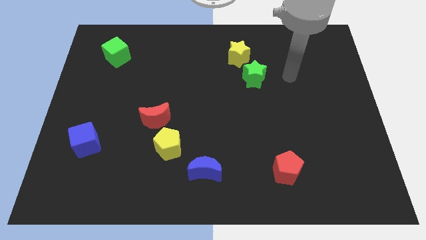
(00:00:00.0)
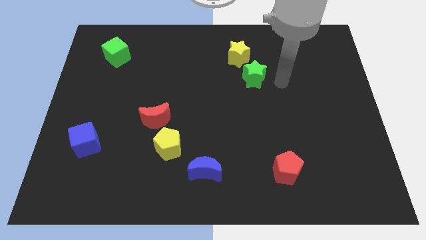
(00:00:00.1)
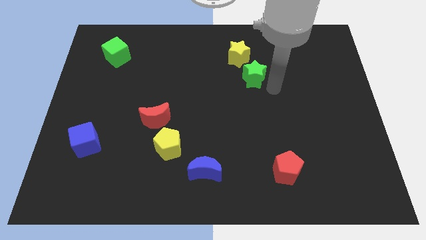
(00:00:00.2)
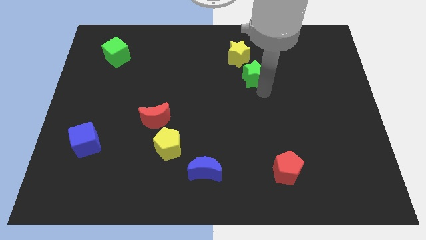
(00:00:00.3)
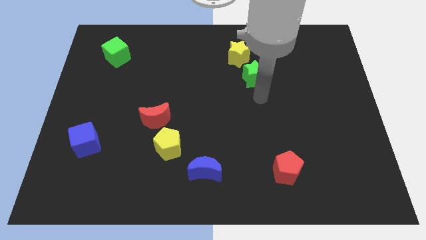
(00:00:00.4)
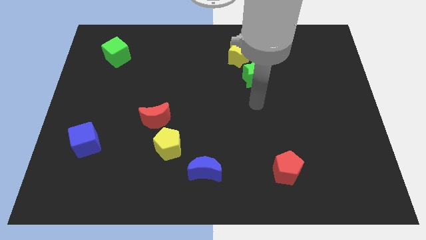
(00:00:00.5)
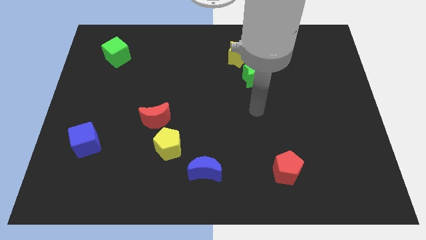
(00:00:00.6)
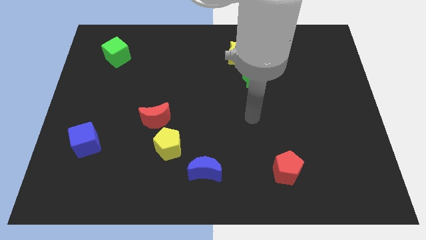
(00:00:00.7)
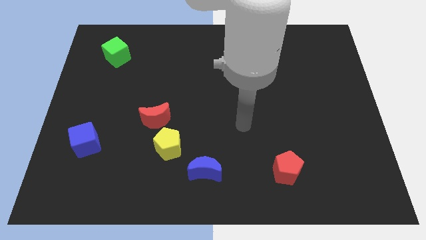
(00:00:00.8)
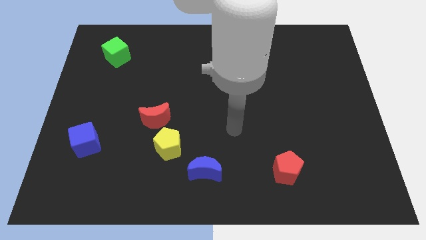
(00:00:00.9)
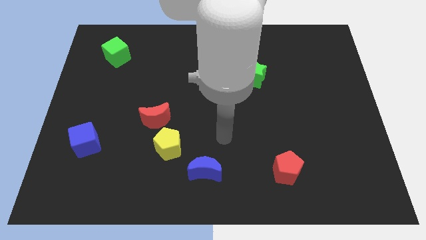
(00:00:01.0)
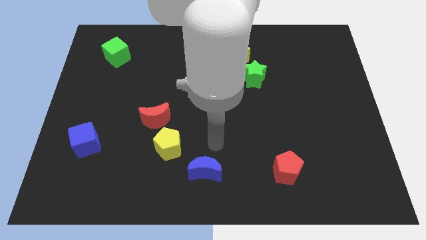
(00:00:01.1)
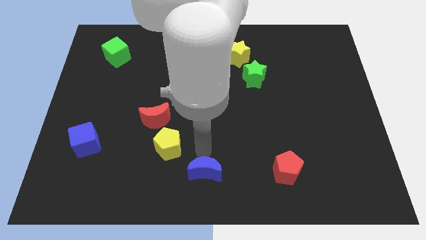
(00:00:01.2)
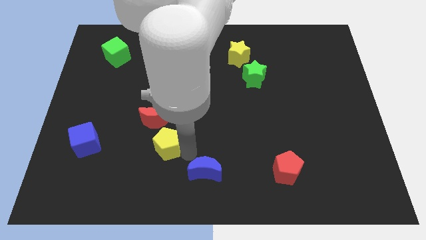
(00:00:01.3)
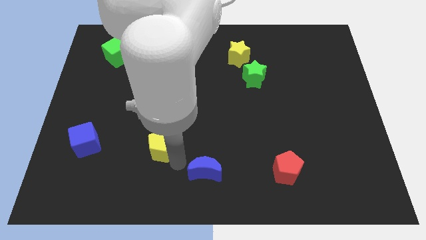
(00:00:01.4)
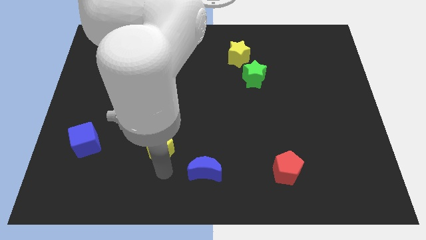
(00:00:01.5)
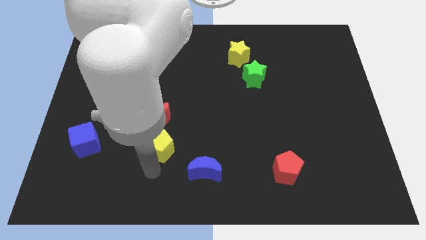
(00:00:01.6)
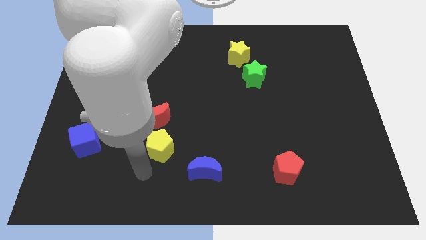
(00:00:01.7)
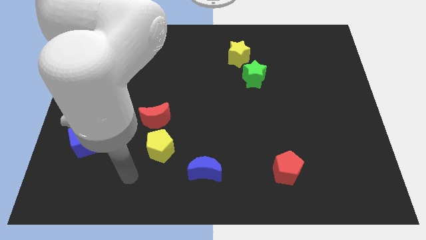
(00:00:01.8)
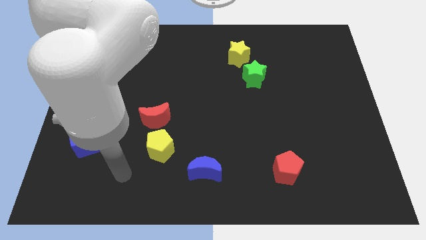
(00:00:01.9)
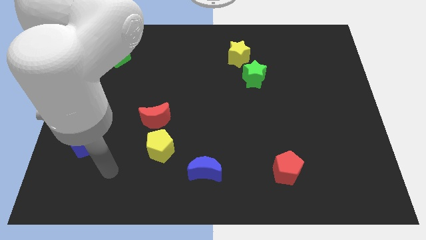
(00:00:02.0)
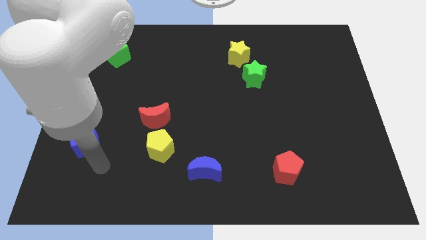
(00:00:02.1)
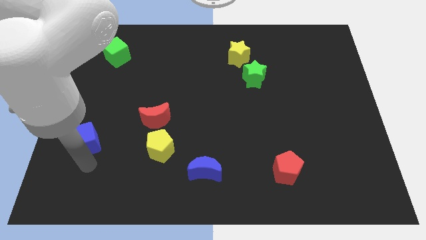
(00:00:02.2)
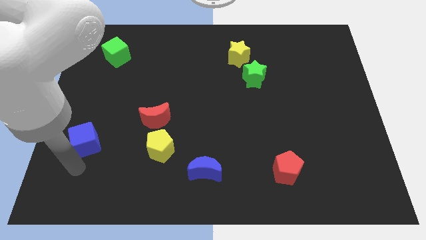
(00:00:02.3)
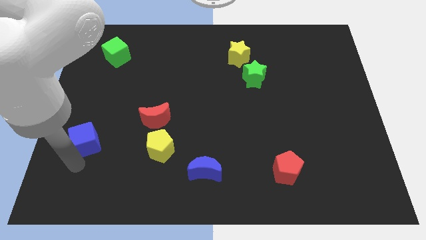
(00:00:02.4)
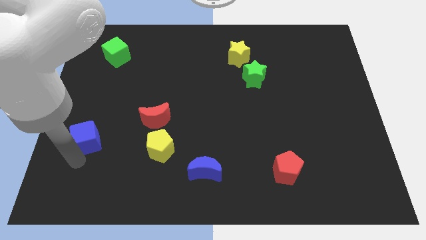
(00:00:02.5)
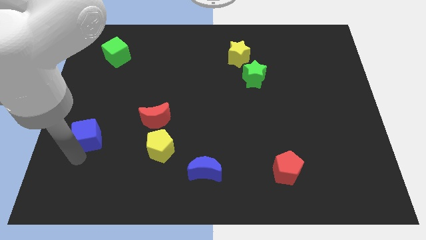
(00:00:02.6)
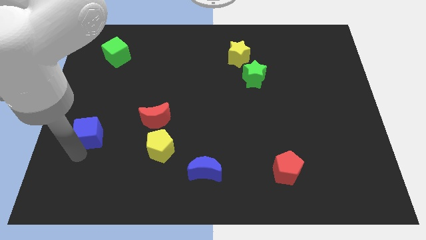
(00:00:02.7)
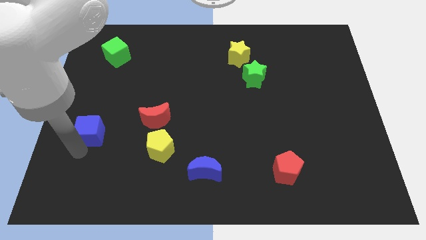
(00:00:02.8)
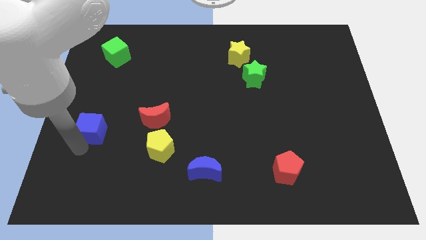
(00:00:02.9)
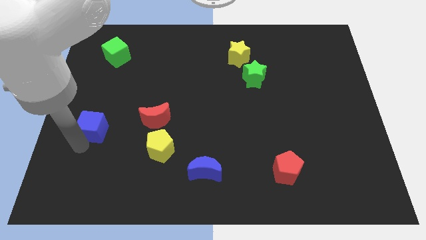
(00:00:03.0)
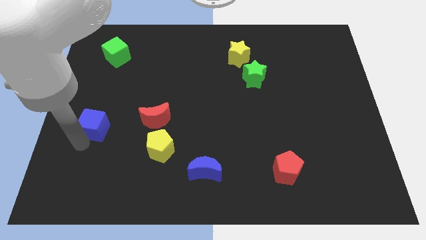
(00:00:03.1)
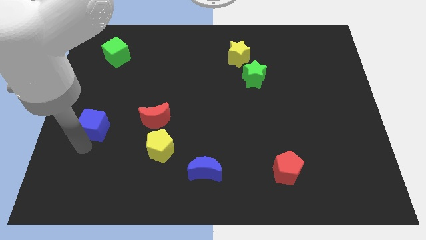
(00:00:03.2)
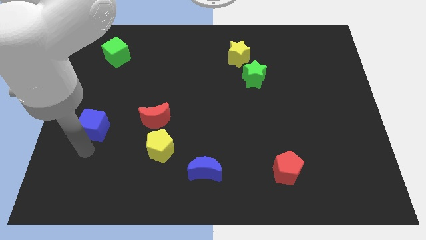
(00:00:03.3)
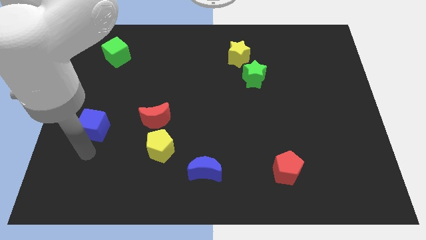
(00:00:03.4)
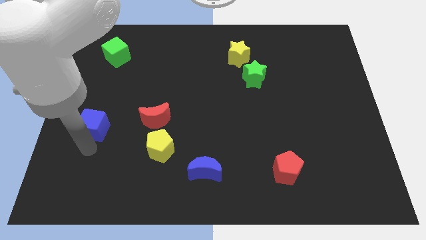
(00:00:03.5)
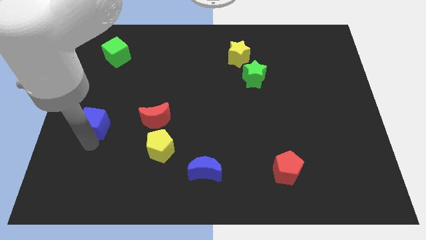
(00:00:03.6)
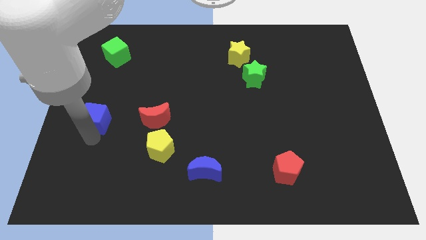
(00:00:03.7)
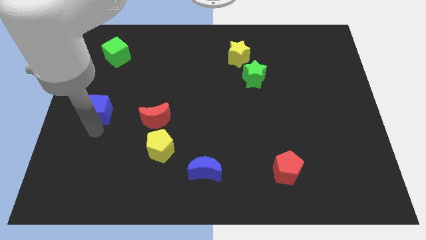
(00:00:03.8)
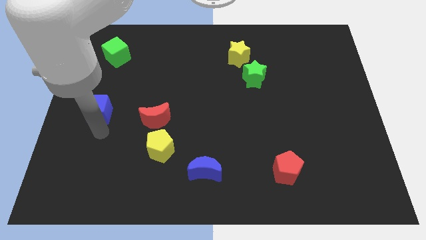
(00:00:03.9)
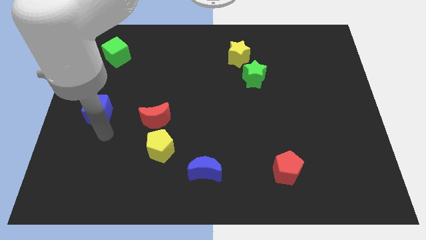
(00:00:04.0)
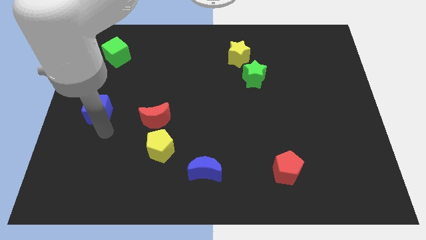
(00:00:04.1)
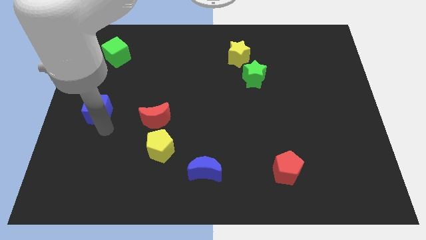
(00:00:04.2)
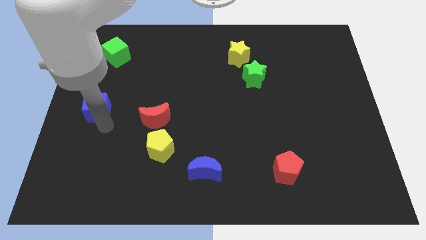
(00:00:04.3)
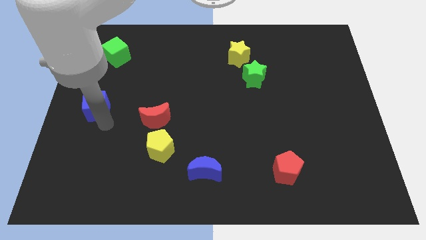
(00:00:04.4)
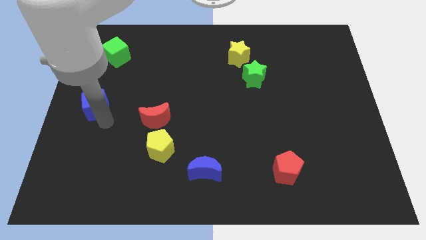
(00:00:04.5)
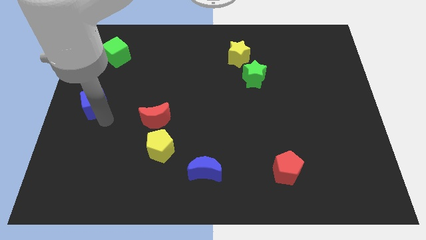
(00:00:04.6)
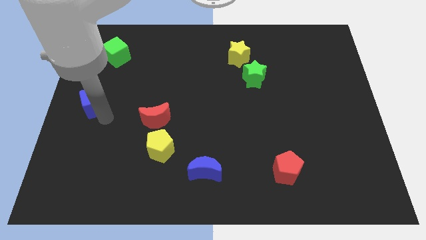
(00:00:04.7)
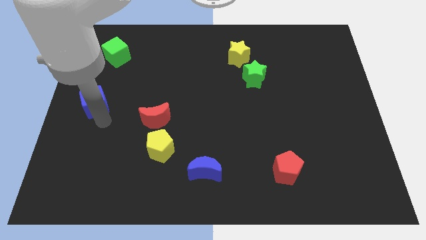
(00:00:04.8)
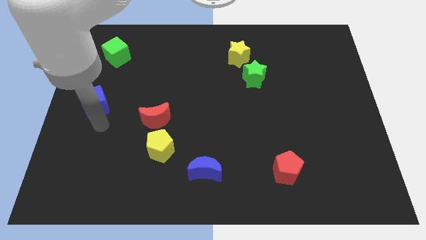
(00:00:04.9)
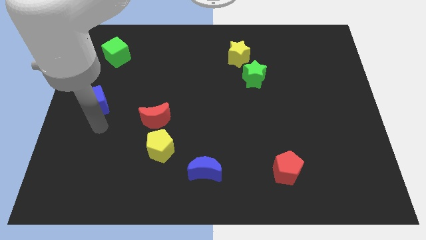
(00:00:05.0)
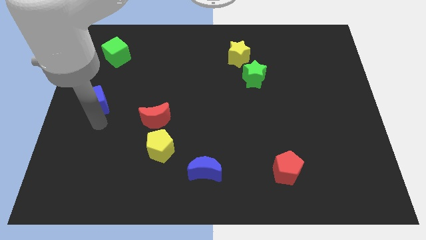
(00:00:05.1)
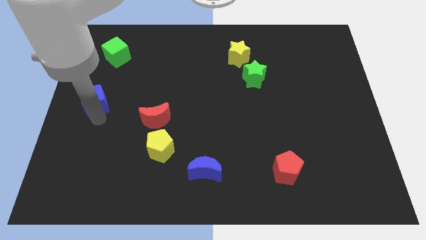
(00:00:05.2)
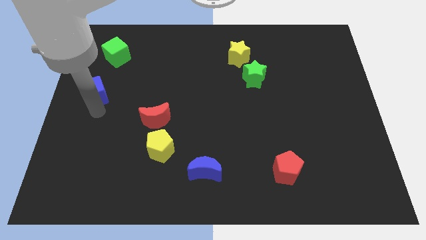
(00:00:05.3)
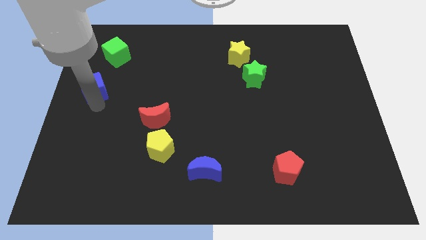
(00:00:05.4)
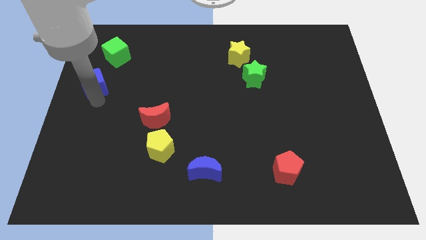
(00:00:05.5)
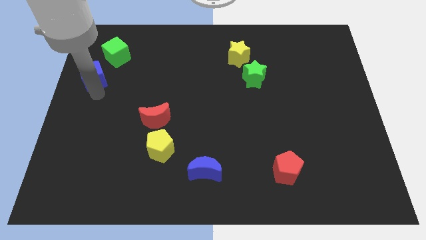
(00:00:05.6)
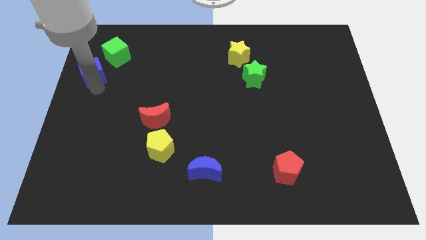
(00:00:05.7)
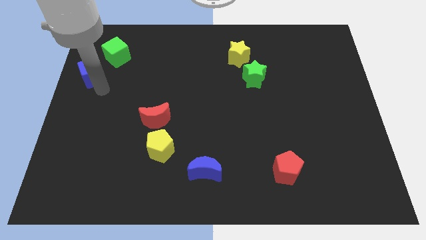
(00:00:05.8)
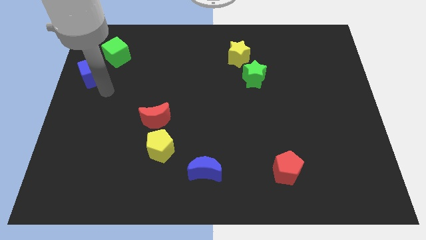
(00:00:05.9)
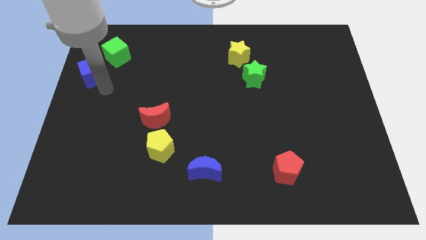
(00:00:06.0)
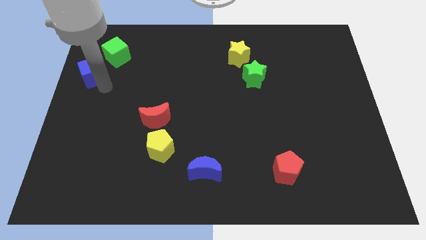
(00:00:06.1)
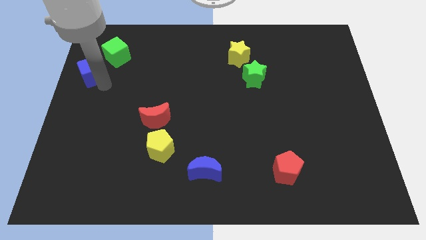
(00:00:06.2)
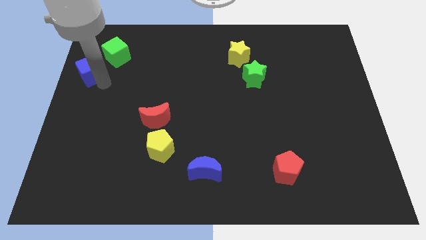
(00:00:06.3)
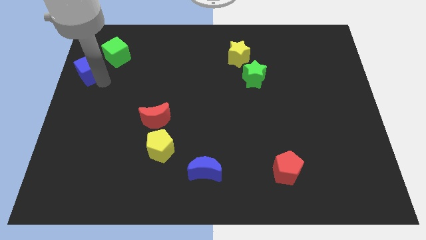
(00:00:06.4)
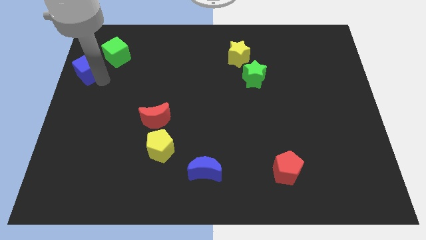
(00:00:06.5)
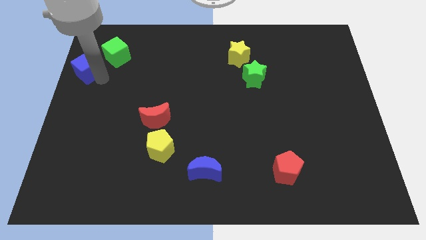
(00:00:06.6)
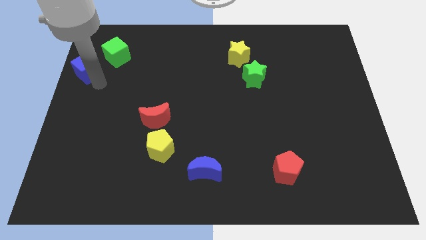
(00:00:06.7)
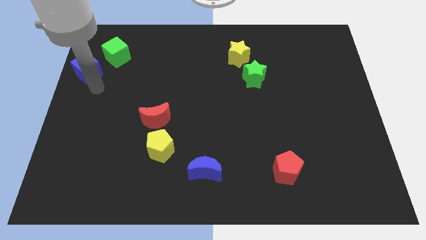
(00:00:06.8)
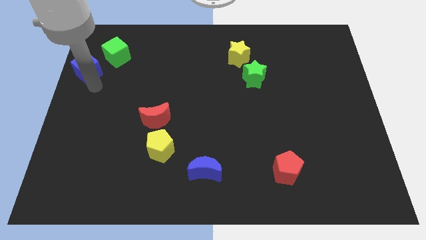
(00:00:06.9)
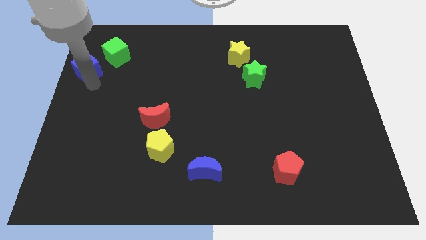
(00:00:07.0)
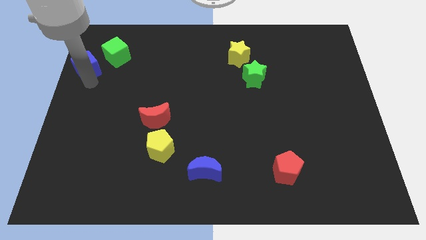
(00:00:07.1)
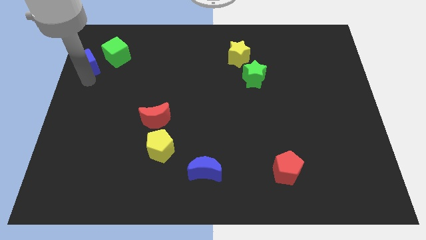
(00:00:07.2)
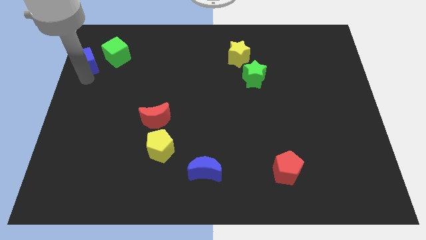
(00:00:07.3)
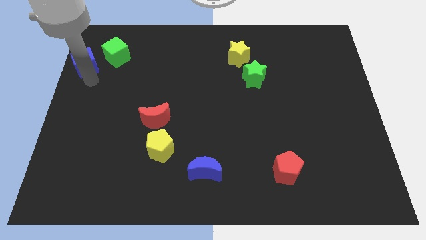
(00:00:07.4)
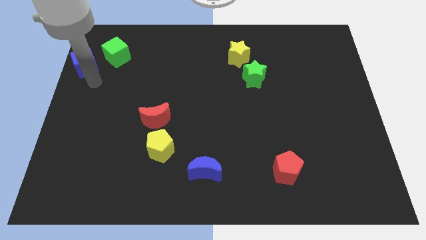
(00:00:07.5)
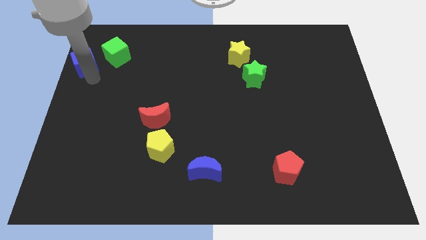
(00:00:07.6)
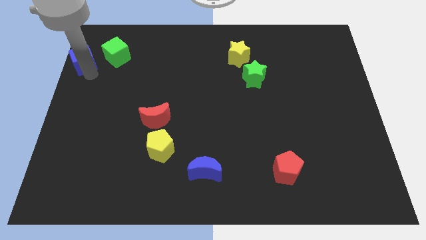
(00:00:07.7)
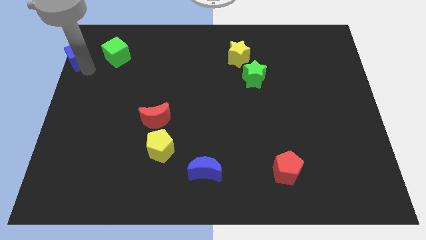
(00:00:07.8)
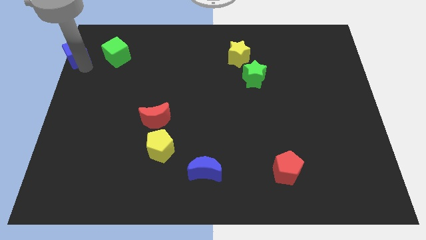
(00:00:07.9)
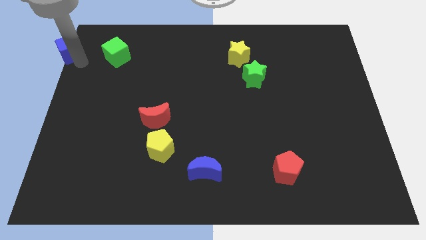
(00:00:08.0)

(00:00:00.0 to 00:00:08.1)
put the blue cube to the top left of the board
